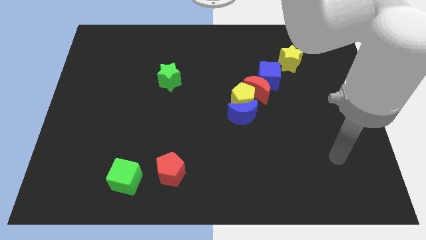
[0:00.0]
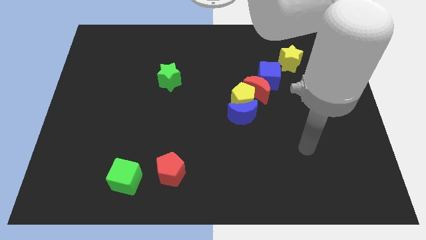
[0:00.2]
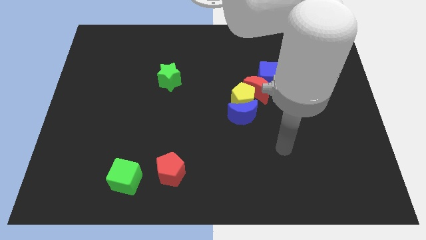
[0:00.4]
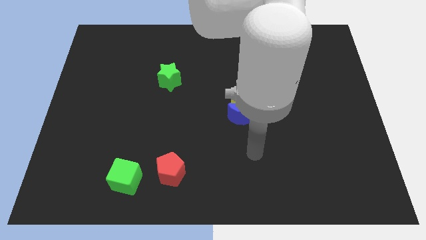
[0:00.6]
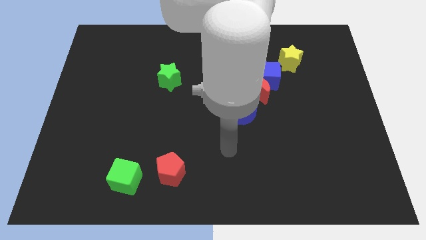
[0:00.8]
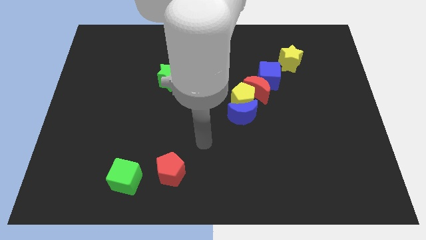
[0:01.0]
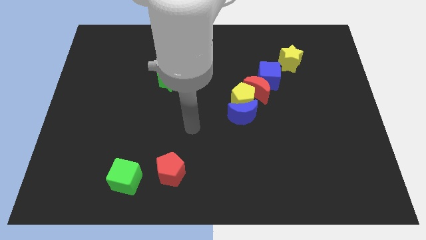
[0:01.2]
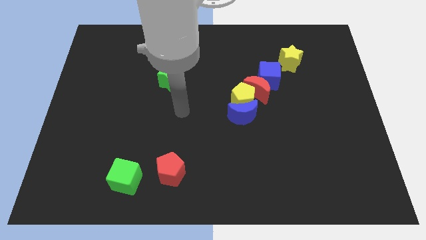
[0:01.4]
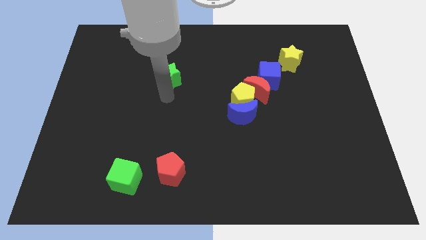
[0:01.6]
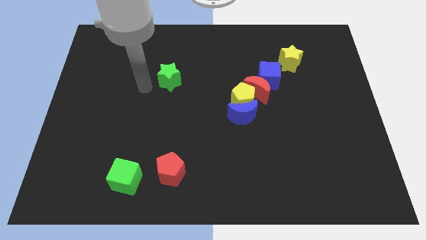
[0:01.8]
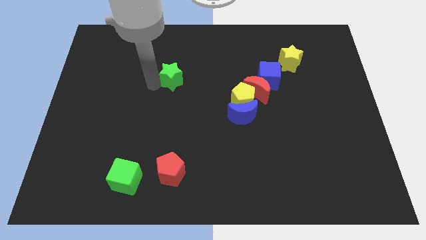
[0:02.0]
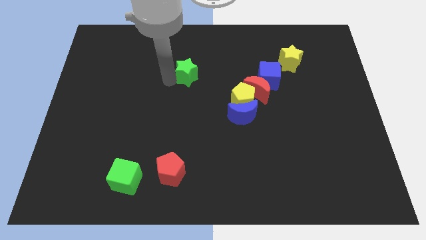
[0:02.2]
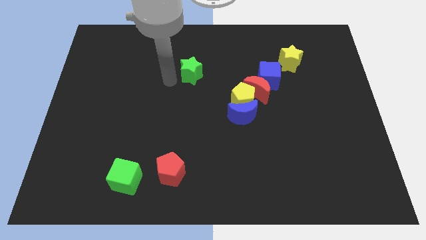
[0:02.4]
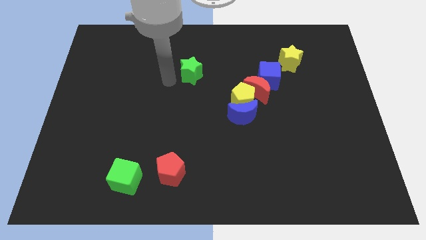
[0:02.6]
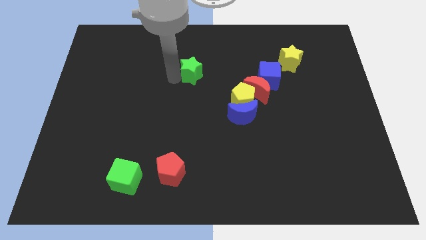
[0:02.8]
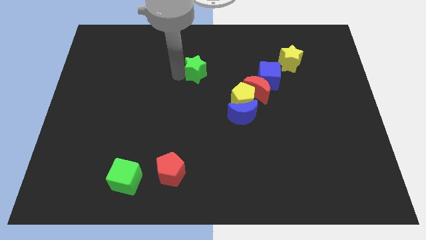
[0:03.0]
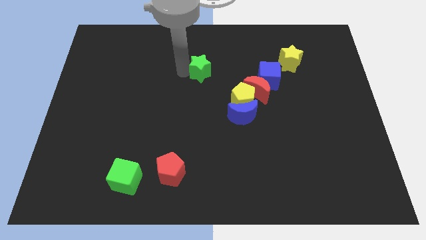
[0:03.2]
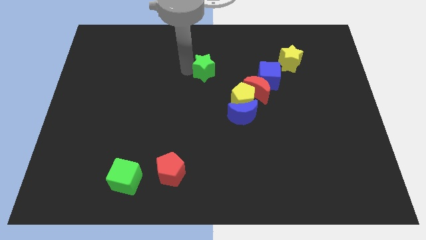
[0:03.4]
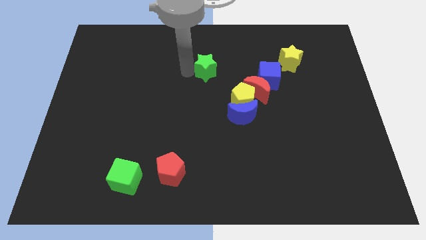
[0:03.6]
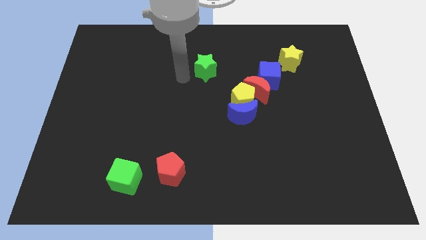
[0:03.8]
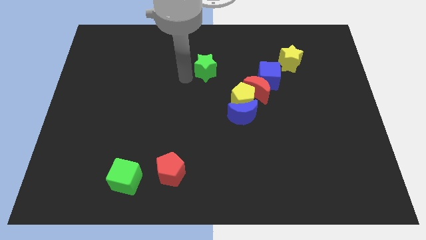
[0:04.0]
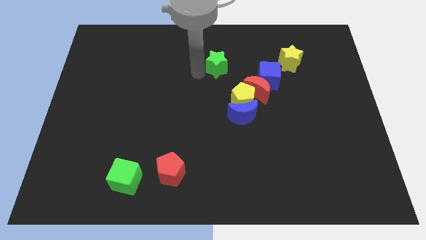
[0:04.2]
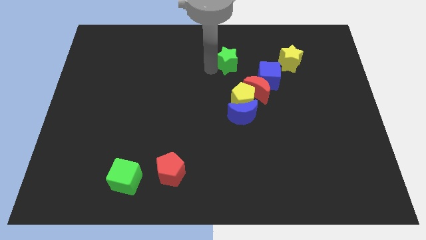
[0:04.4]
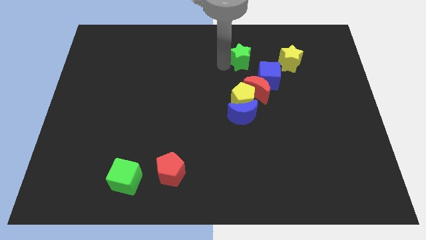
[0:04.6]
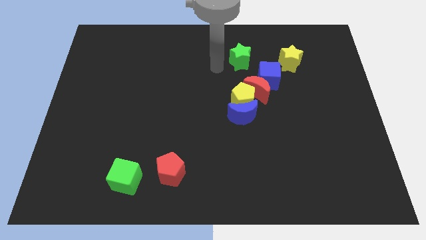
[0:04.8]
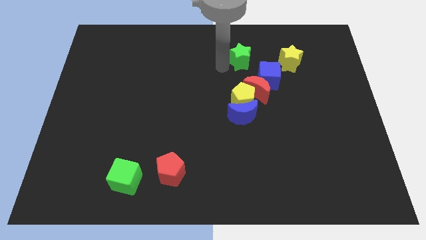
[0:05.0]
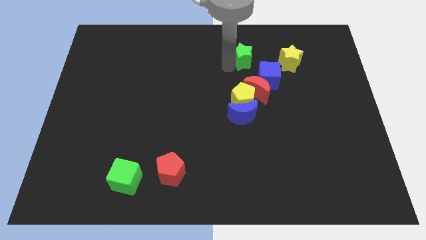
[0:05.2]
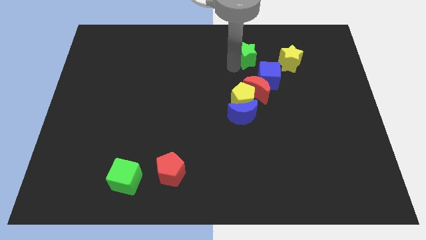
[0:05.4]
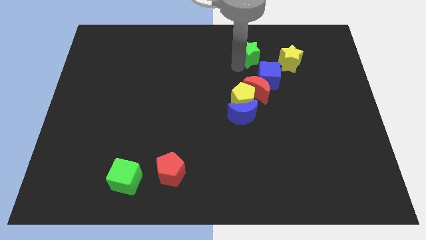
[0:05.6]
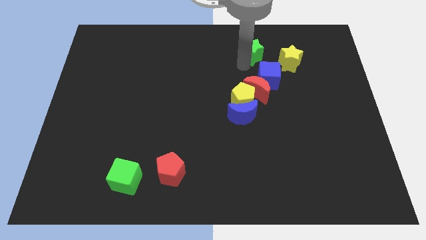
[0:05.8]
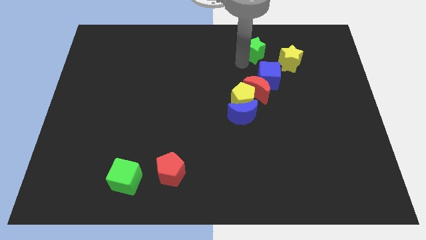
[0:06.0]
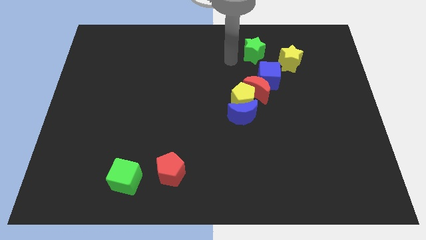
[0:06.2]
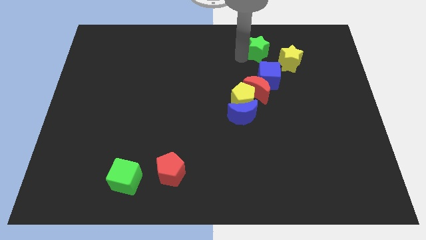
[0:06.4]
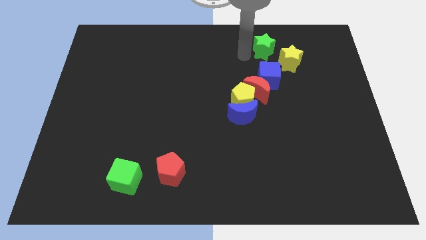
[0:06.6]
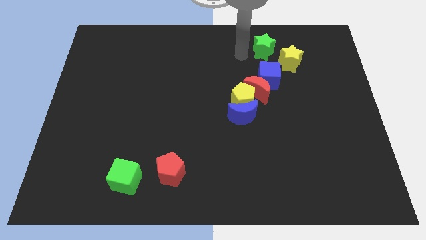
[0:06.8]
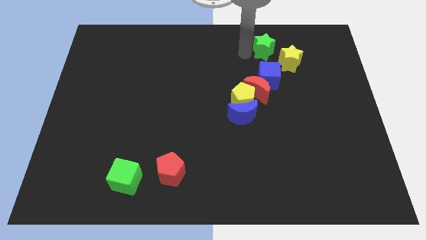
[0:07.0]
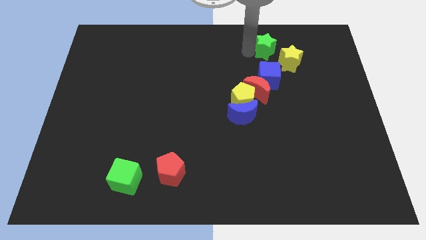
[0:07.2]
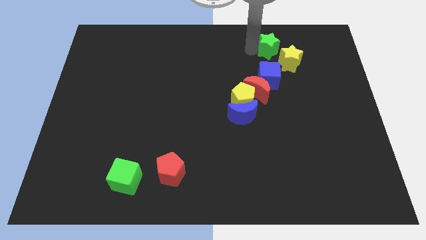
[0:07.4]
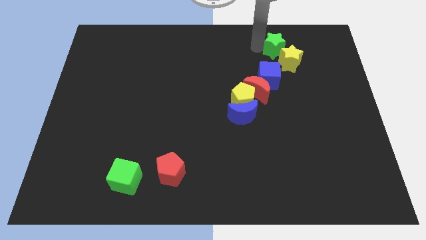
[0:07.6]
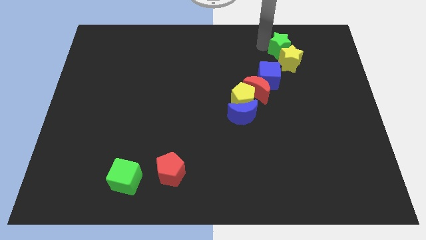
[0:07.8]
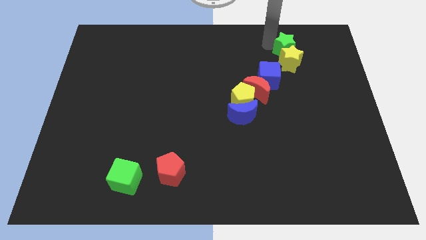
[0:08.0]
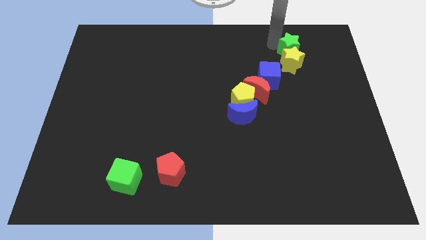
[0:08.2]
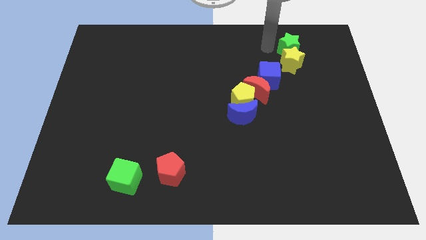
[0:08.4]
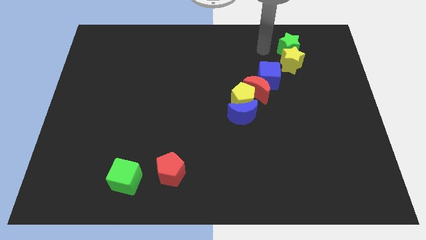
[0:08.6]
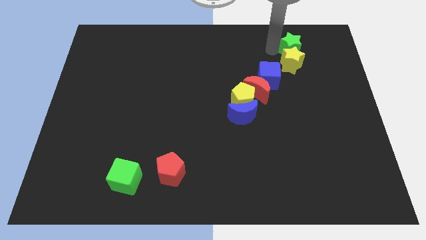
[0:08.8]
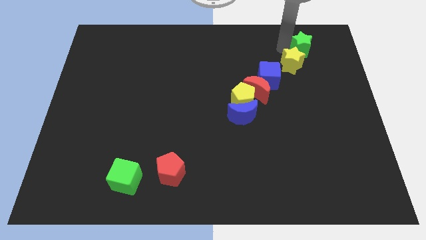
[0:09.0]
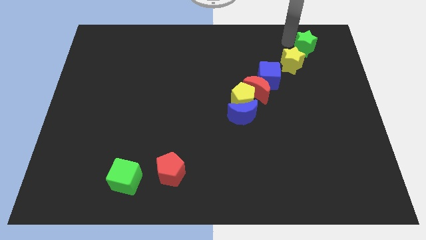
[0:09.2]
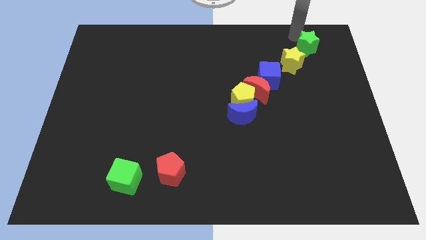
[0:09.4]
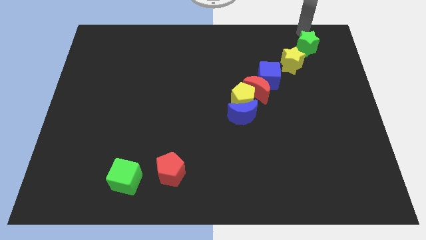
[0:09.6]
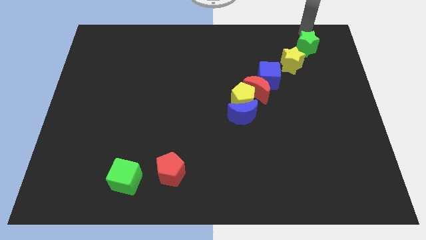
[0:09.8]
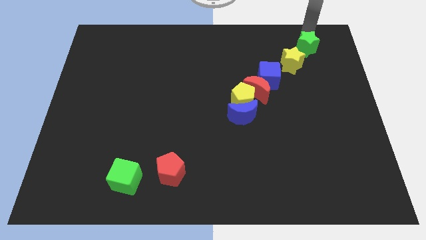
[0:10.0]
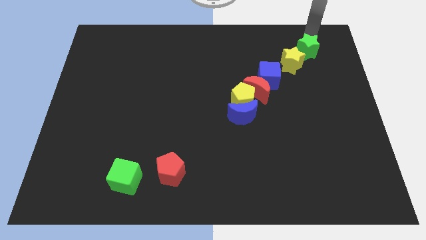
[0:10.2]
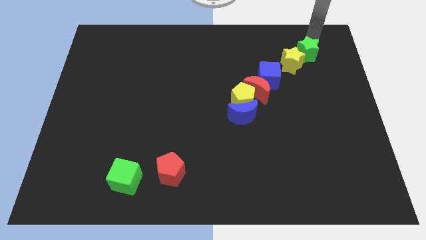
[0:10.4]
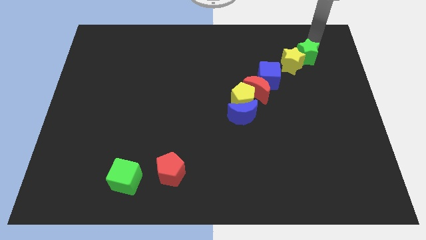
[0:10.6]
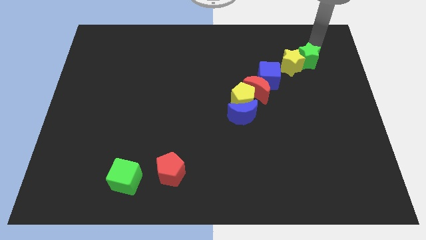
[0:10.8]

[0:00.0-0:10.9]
push the green star diagonally down and to the right of the yellow star
